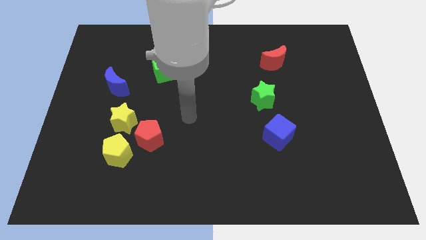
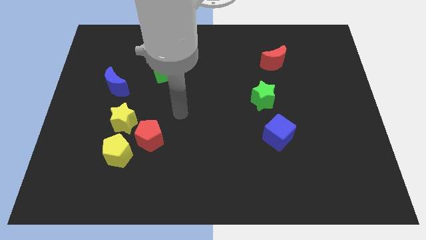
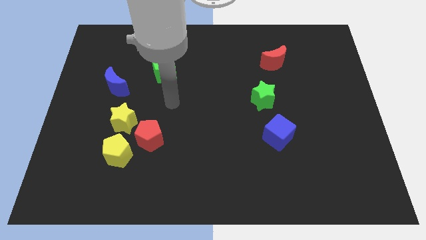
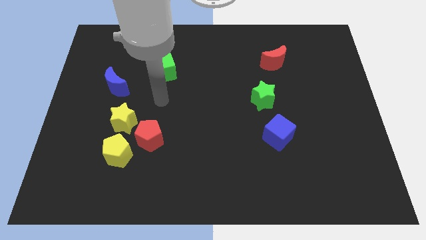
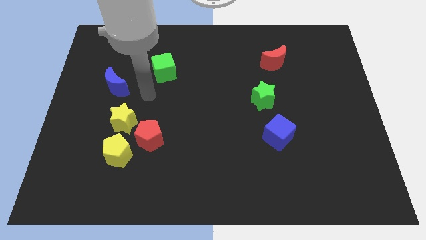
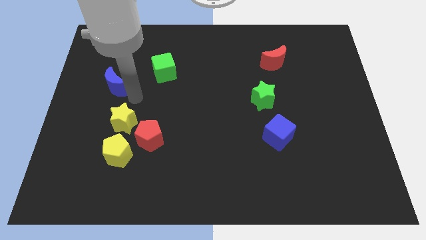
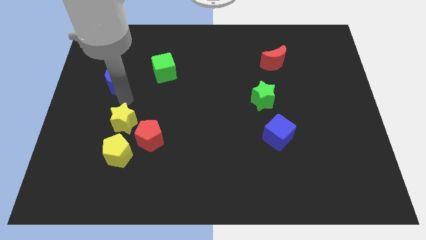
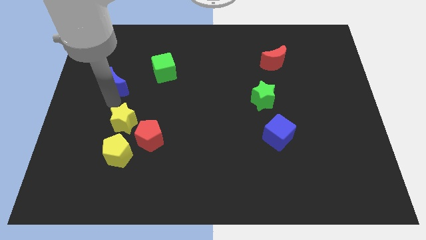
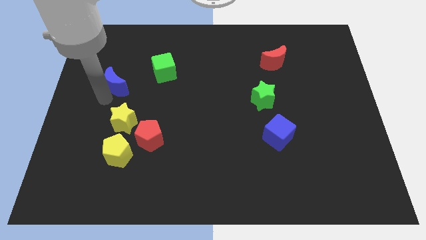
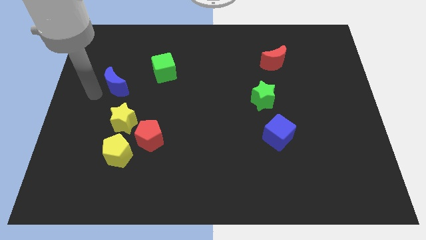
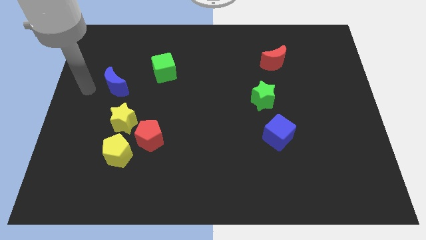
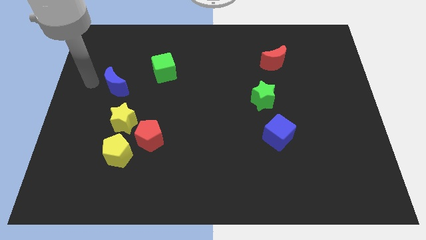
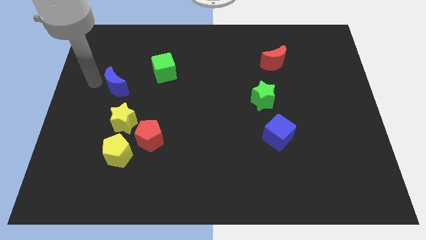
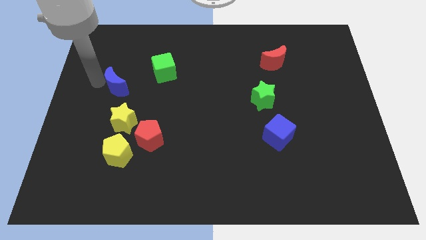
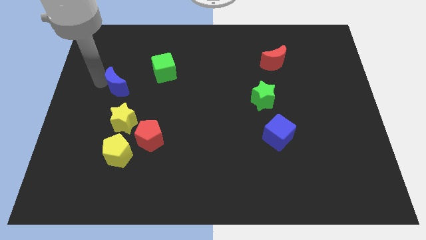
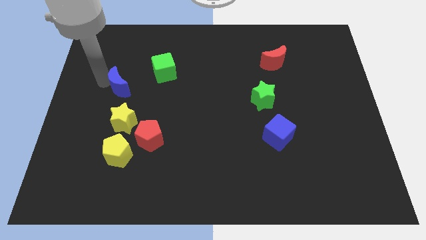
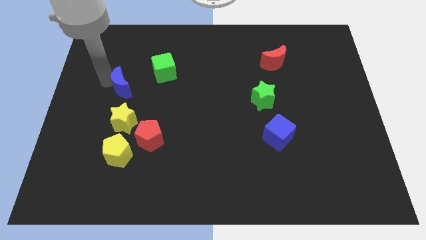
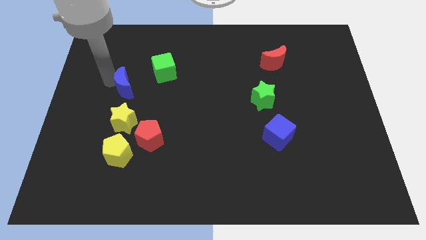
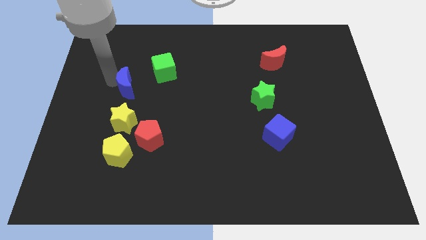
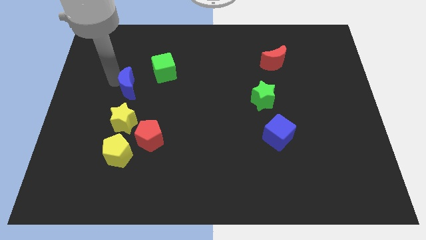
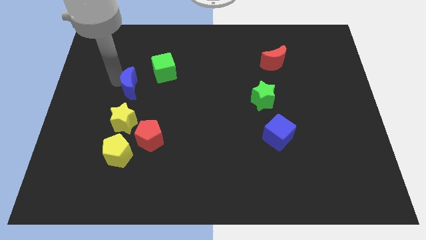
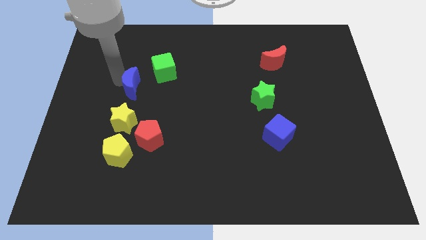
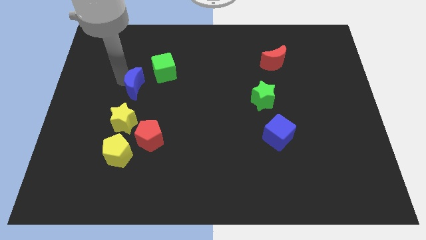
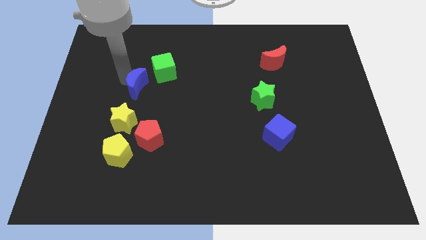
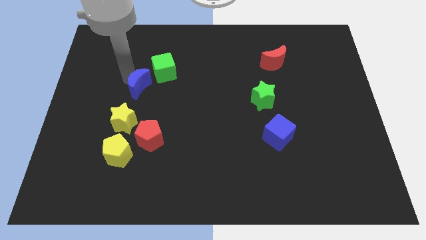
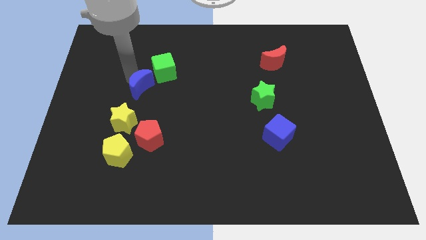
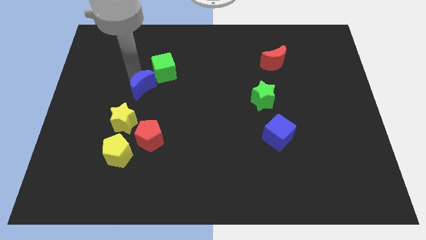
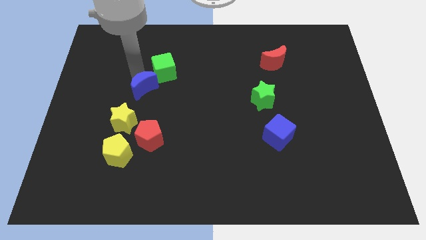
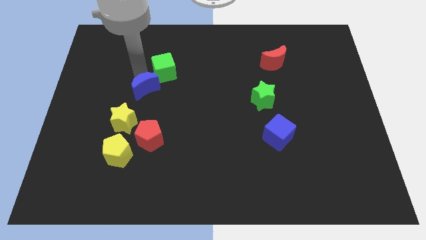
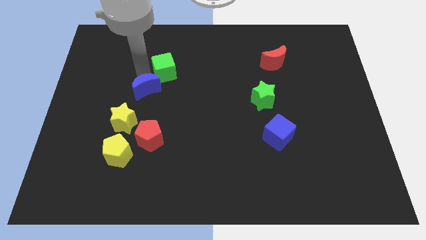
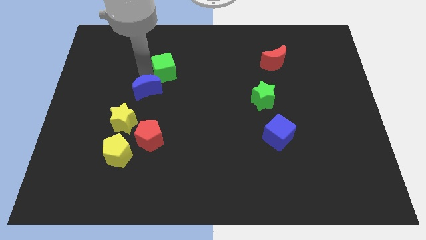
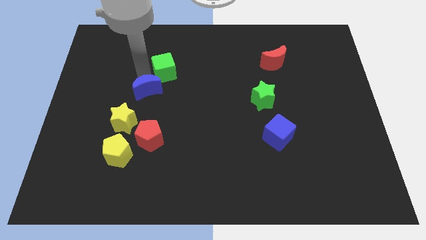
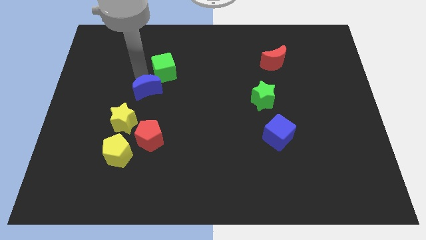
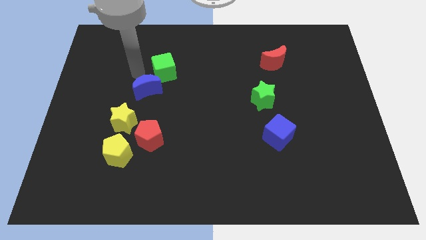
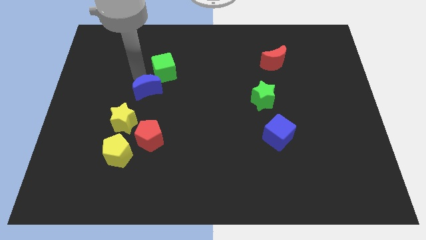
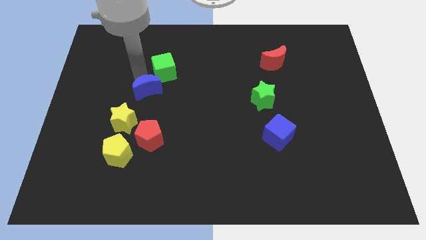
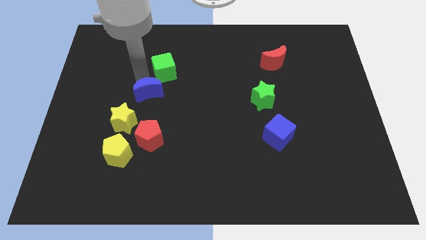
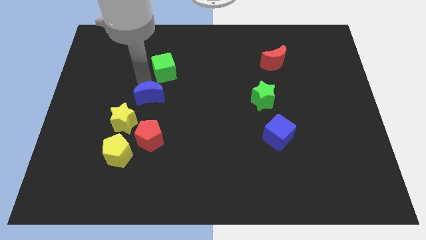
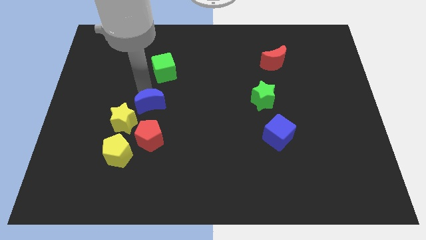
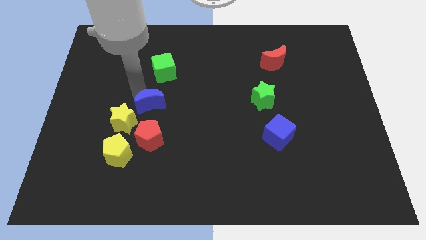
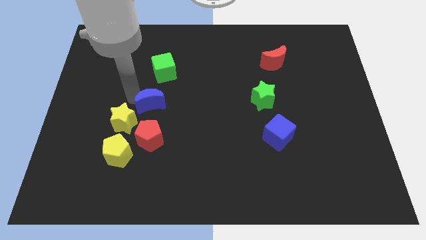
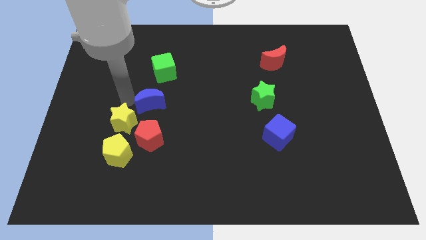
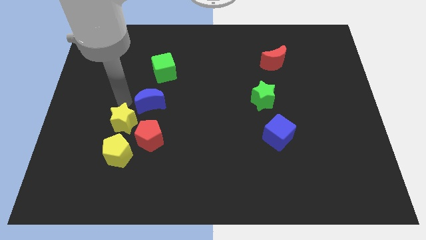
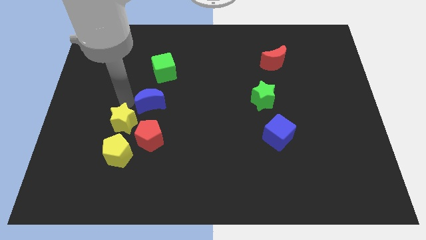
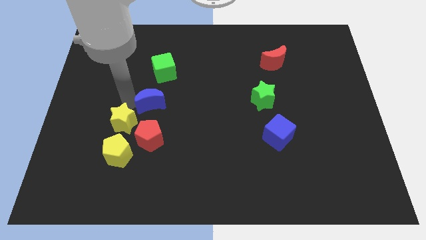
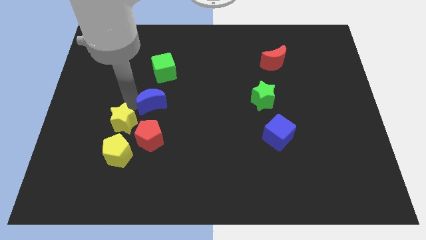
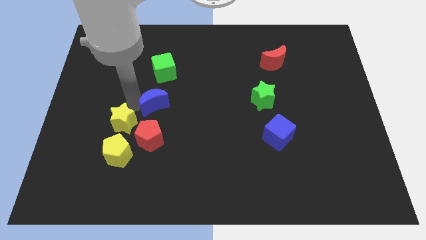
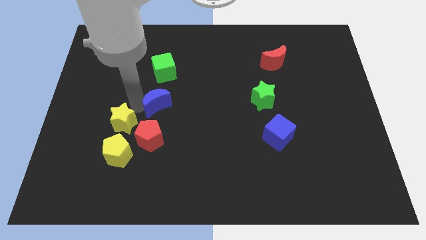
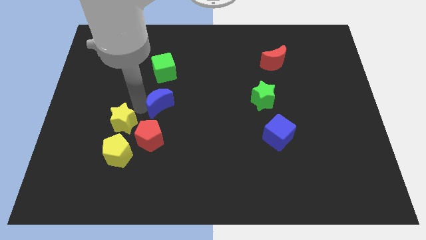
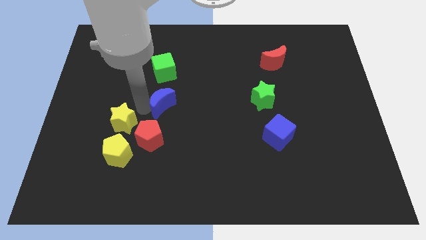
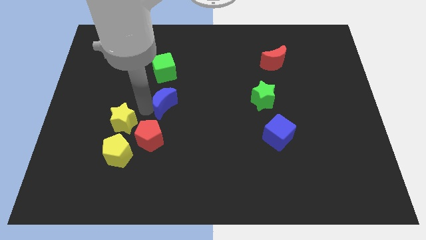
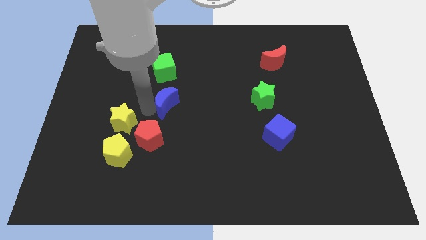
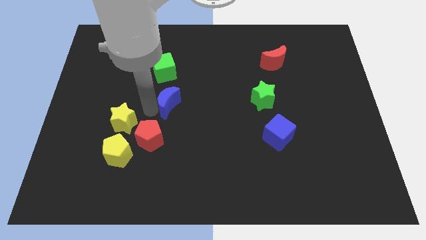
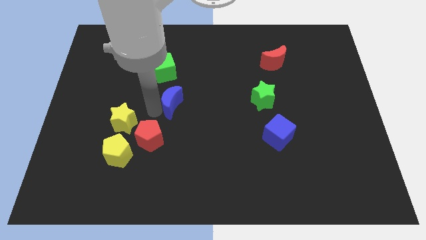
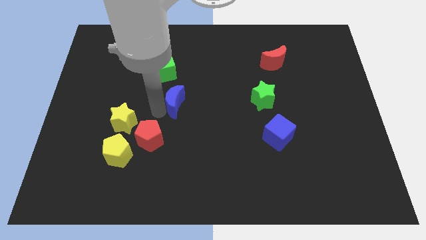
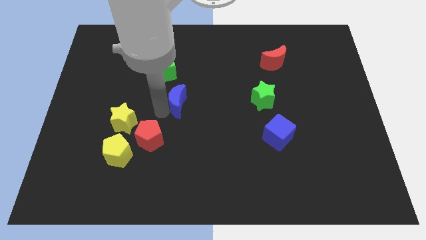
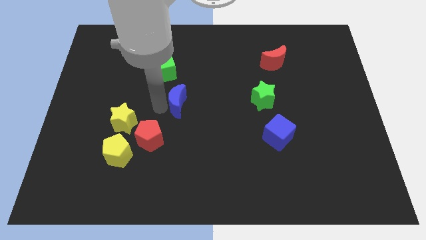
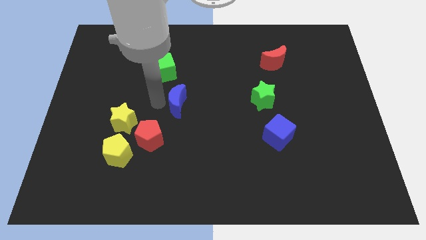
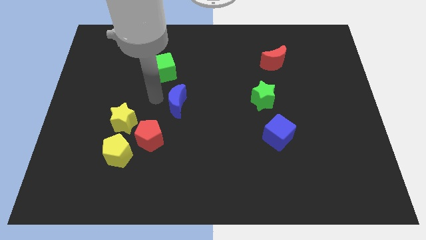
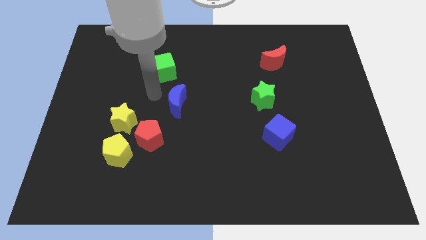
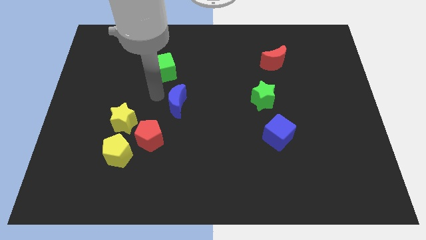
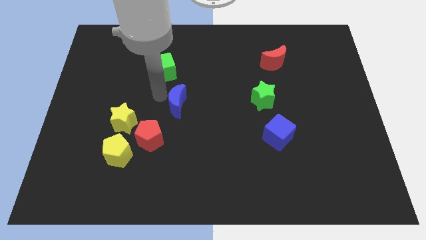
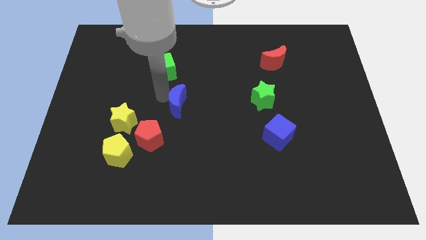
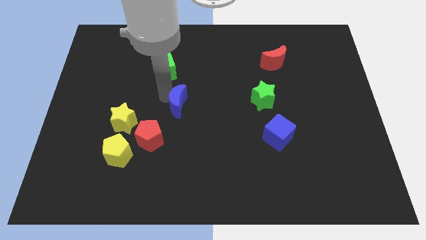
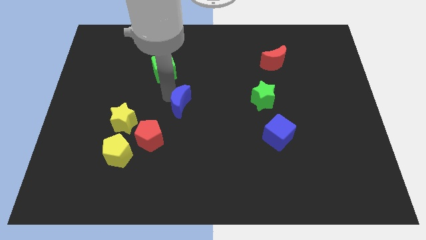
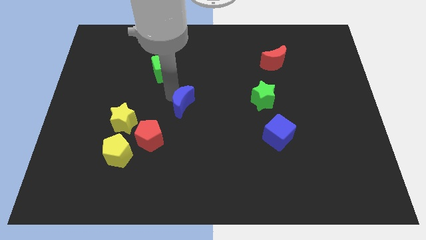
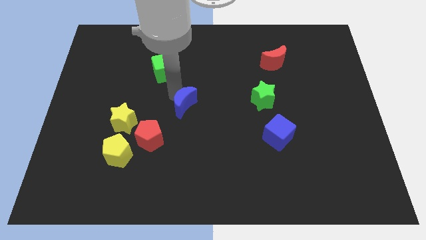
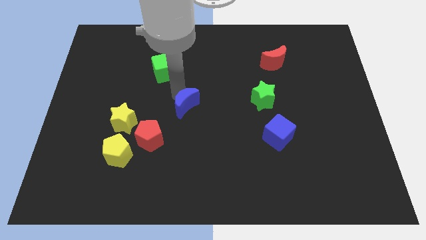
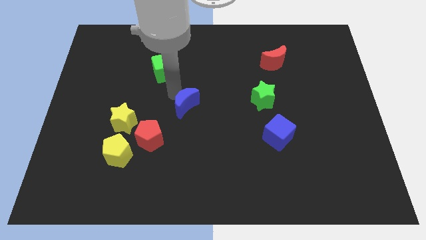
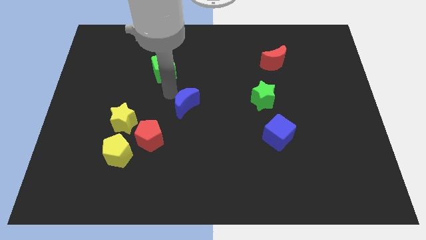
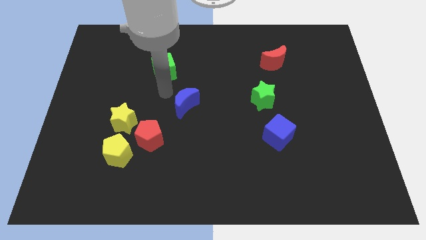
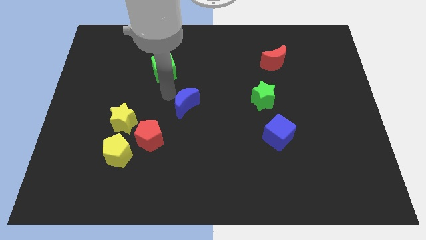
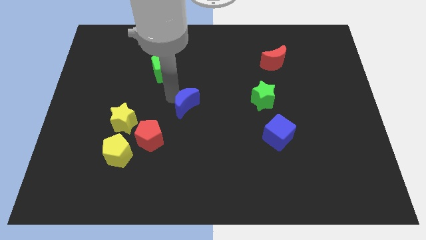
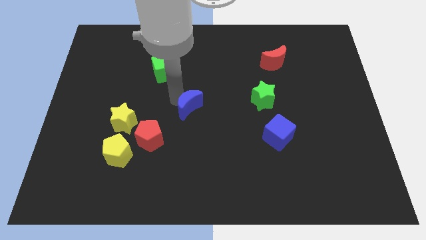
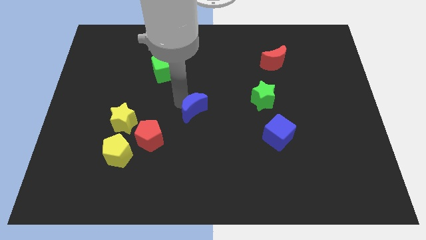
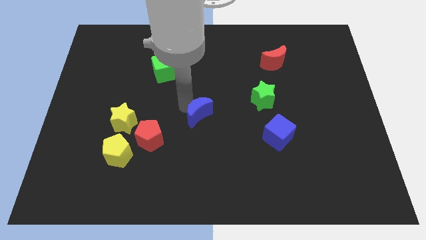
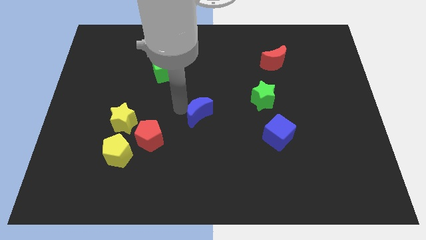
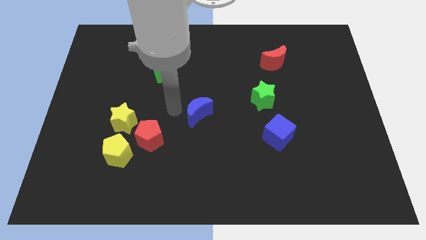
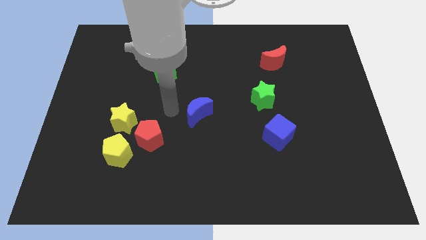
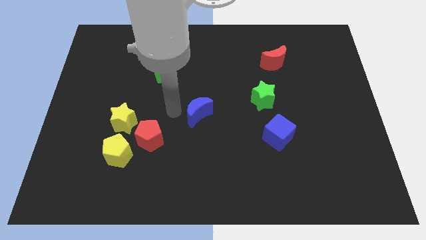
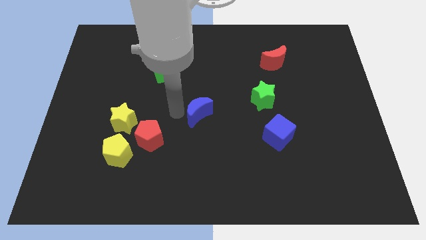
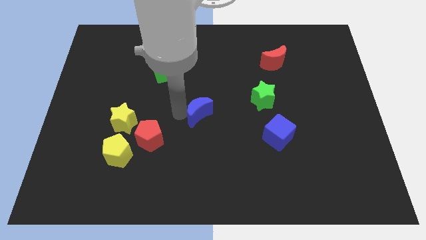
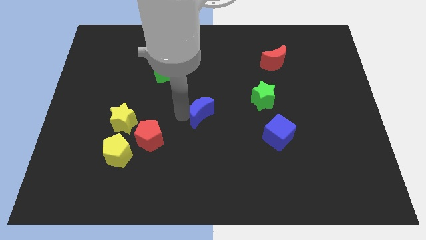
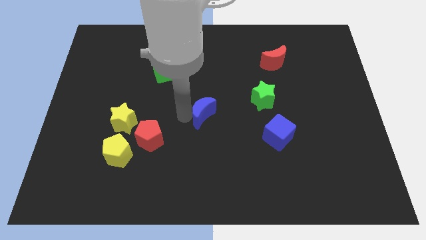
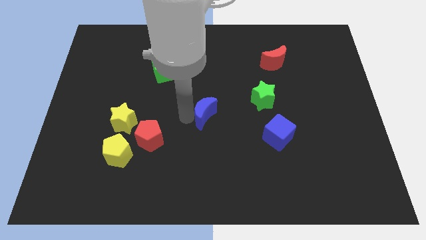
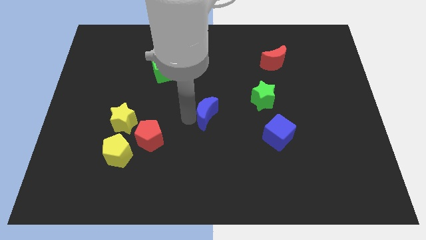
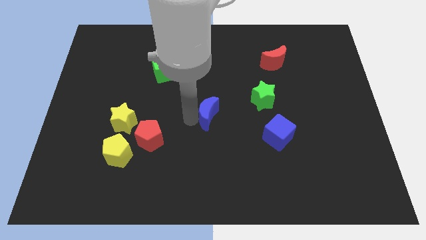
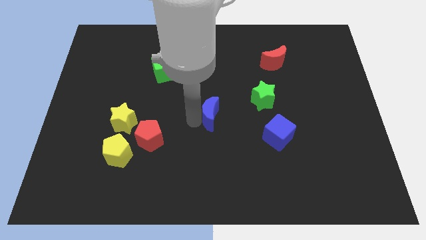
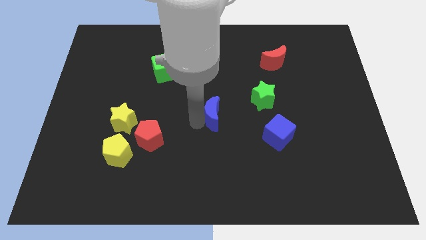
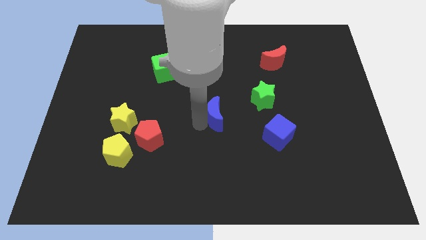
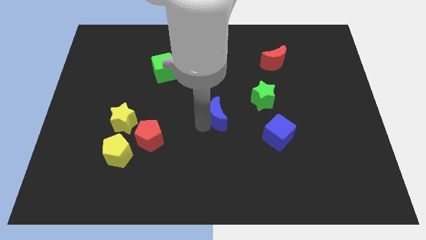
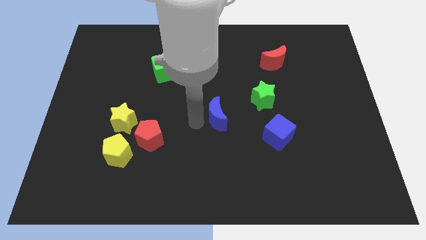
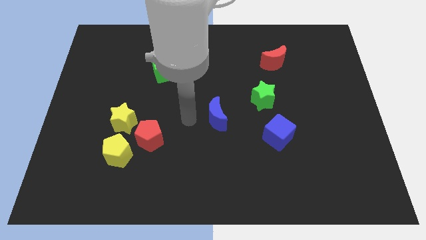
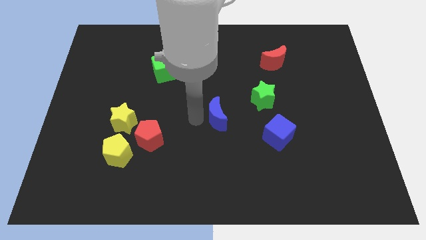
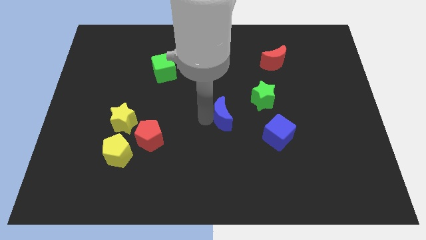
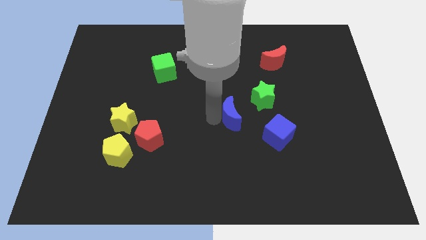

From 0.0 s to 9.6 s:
slide the blue moon to the top left side of the blue cube
